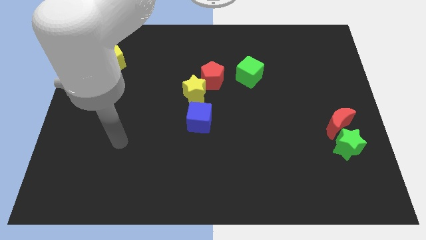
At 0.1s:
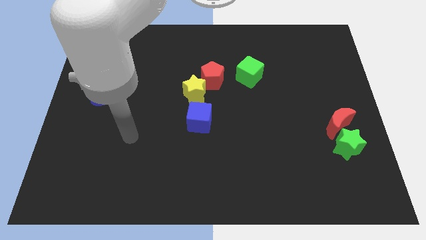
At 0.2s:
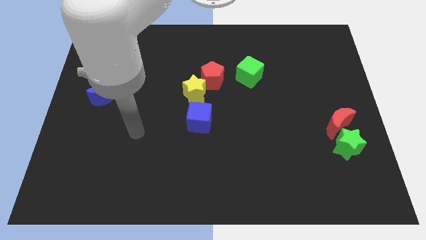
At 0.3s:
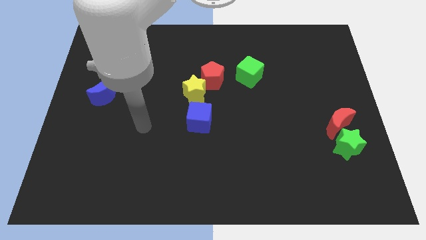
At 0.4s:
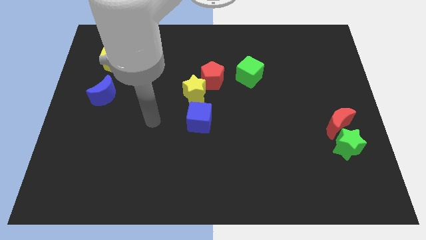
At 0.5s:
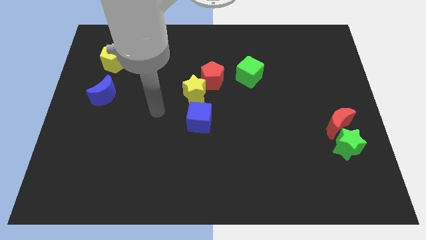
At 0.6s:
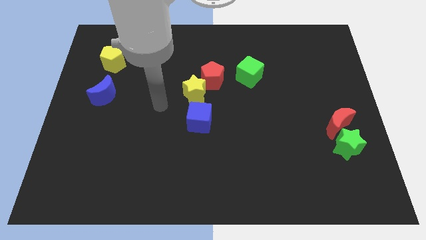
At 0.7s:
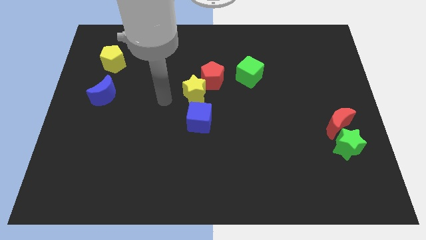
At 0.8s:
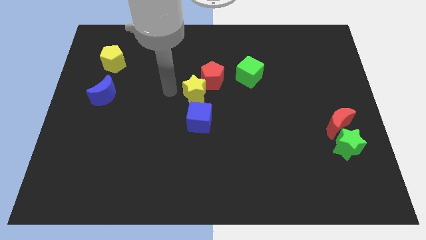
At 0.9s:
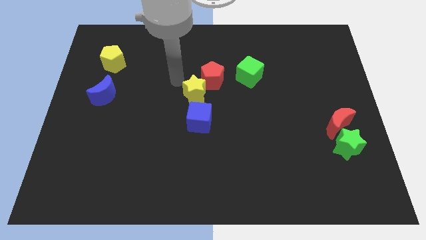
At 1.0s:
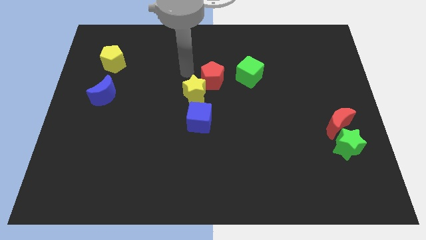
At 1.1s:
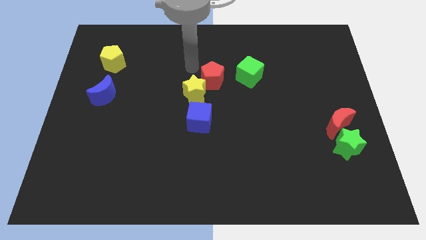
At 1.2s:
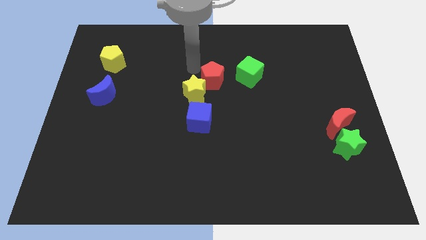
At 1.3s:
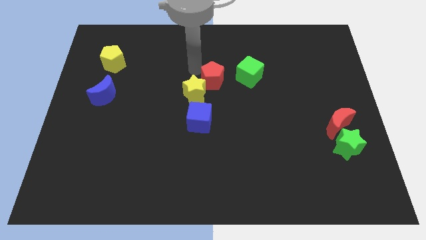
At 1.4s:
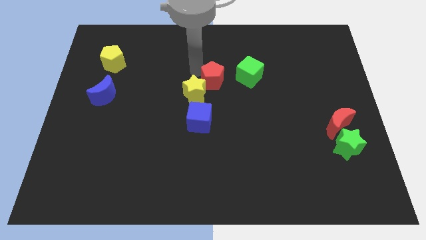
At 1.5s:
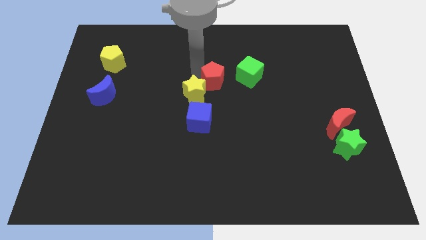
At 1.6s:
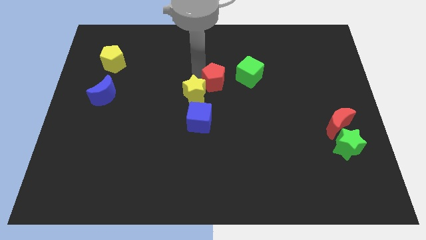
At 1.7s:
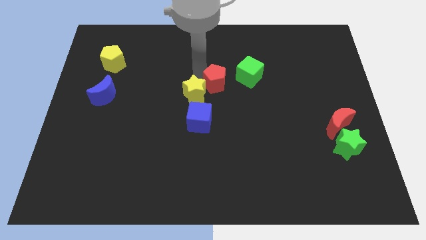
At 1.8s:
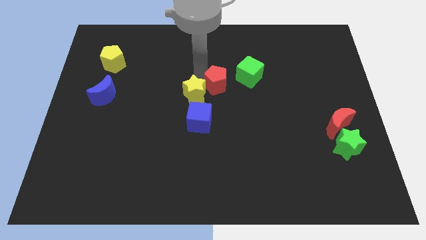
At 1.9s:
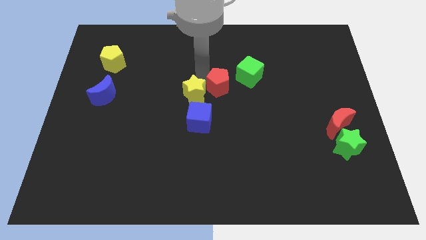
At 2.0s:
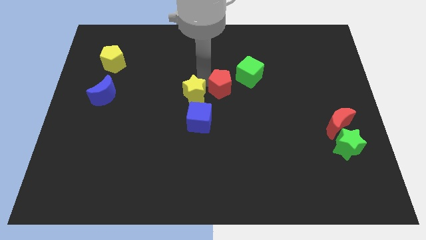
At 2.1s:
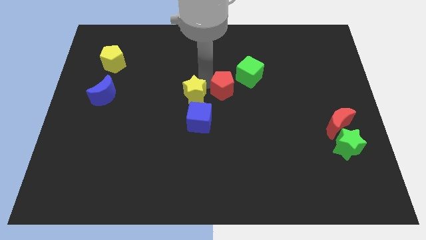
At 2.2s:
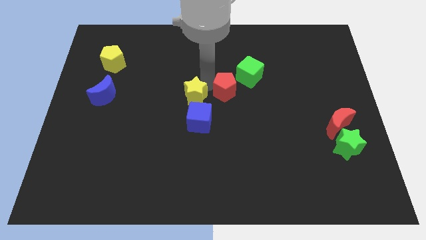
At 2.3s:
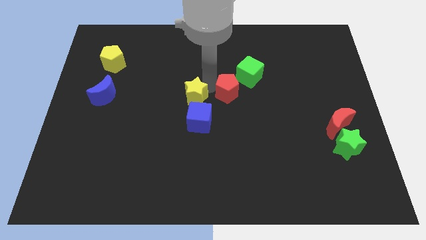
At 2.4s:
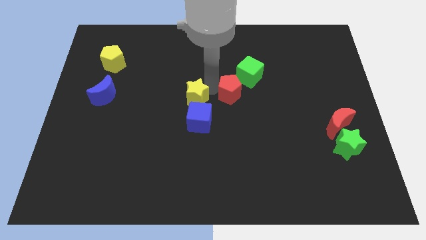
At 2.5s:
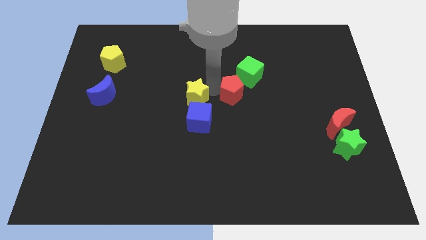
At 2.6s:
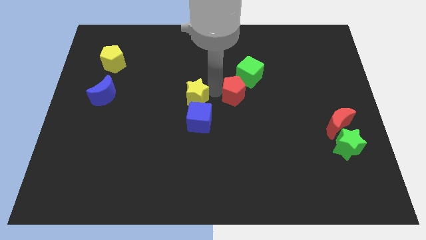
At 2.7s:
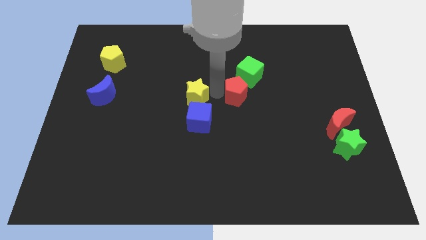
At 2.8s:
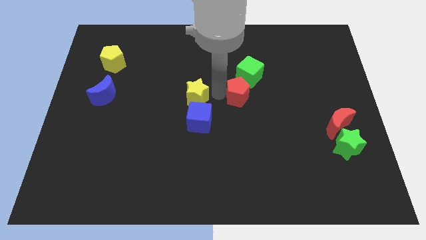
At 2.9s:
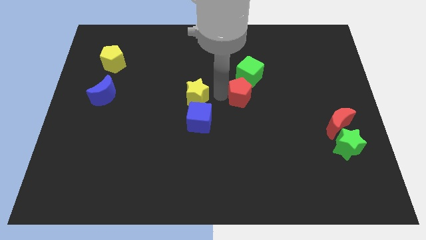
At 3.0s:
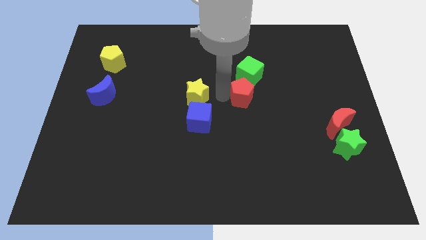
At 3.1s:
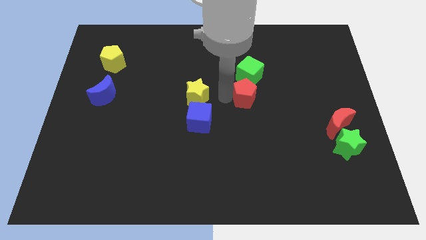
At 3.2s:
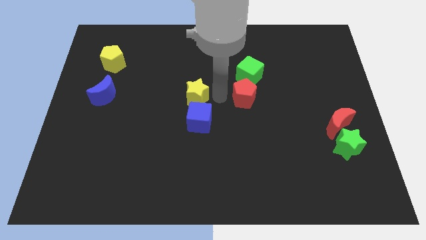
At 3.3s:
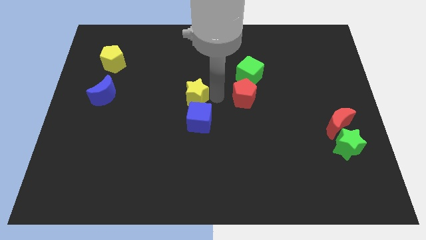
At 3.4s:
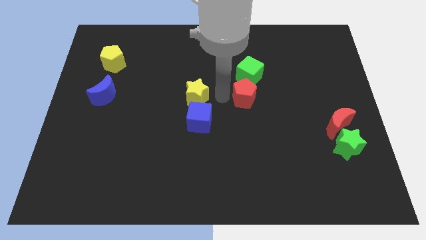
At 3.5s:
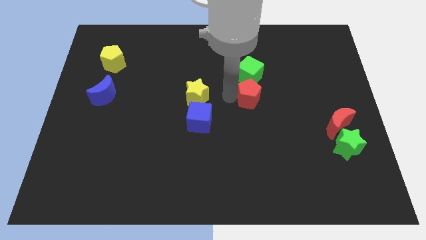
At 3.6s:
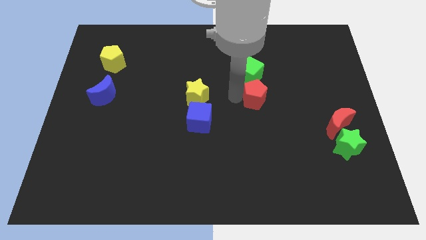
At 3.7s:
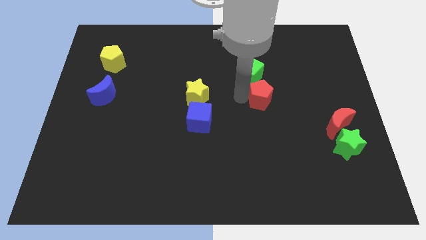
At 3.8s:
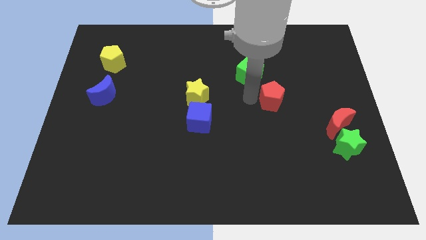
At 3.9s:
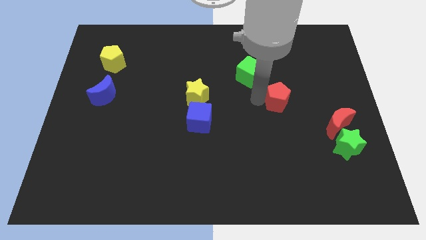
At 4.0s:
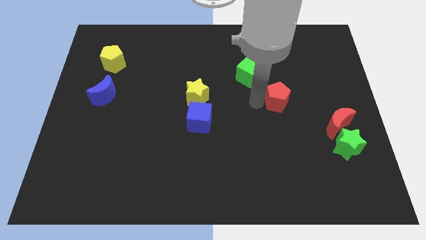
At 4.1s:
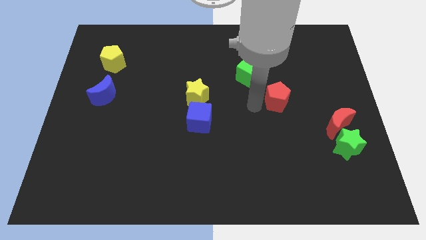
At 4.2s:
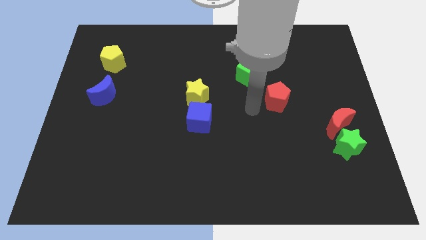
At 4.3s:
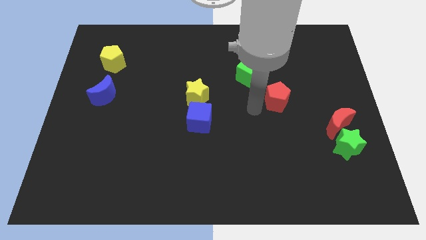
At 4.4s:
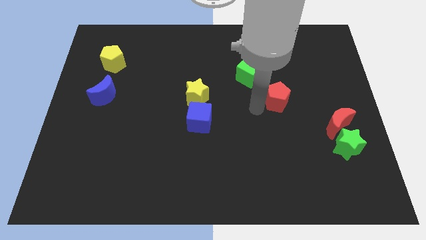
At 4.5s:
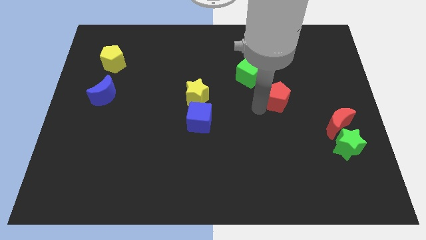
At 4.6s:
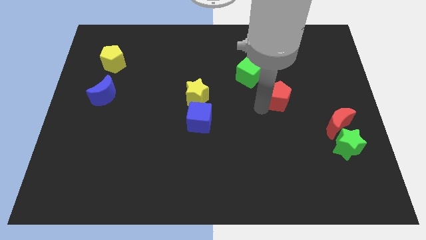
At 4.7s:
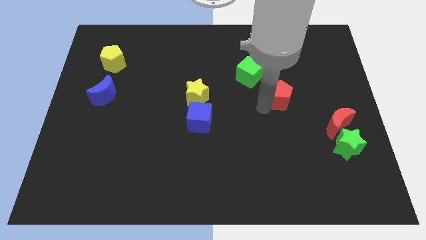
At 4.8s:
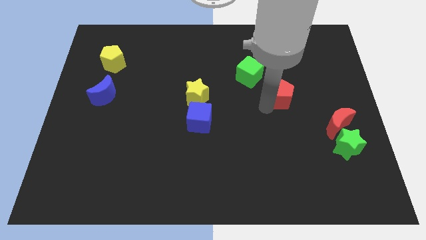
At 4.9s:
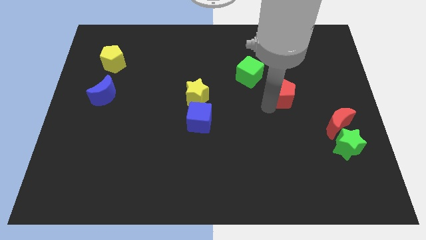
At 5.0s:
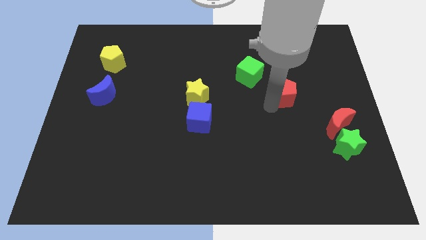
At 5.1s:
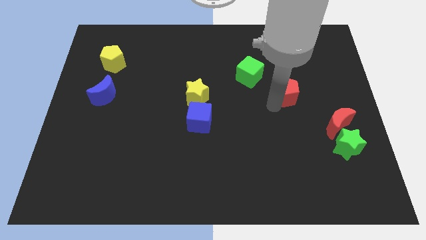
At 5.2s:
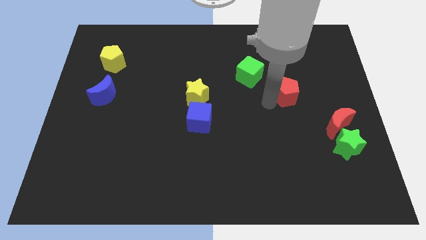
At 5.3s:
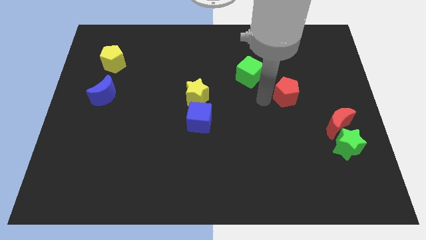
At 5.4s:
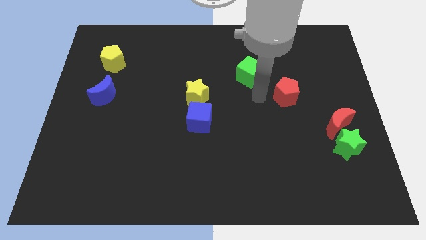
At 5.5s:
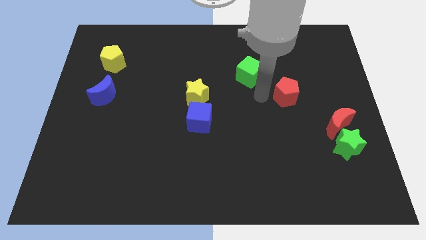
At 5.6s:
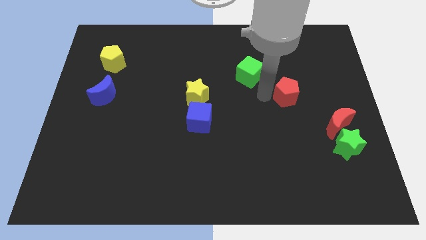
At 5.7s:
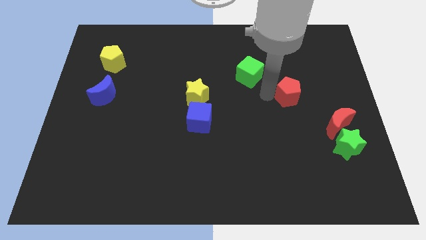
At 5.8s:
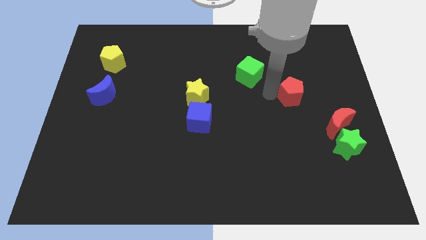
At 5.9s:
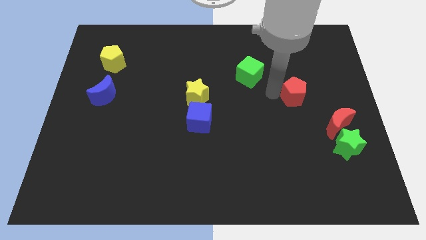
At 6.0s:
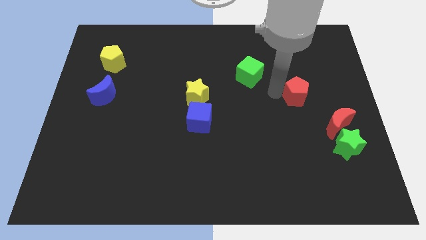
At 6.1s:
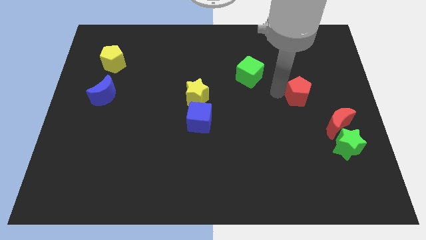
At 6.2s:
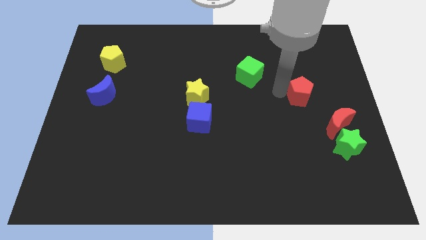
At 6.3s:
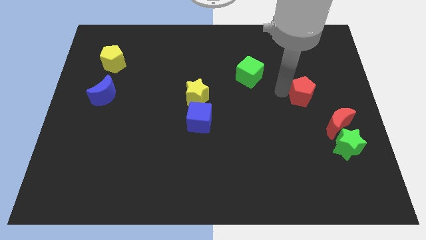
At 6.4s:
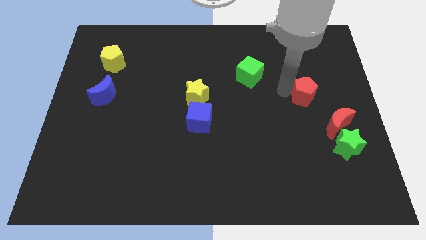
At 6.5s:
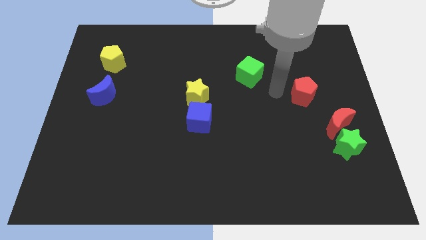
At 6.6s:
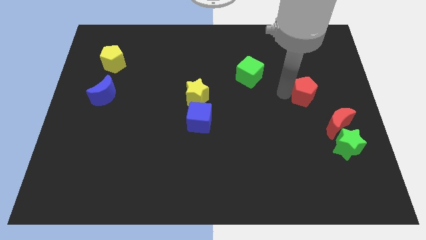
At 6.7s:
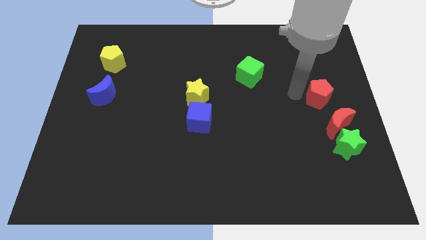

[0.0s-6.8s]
slide the red pentagon to the right side of the board

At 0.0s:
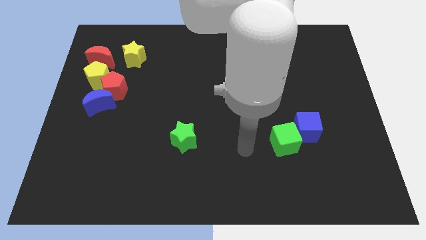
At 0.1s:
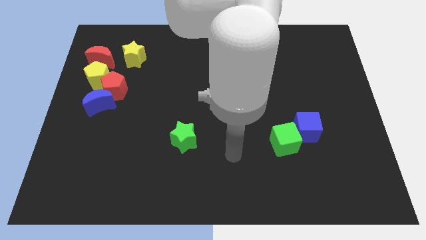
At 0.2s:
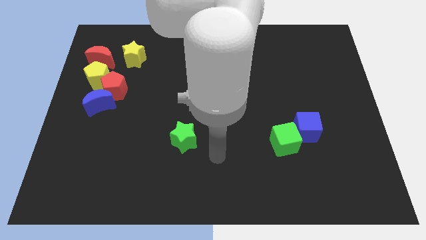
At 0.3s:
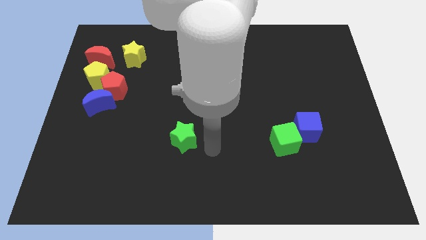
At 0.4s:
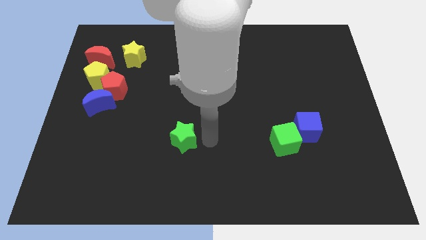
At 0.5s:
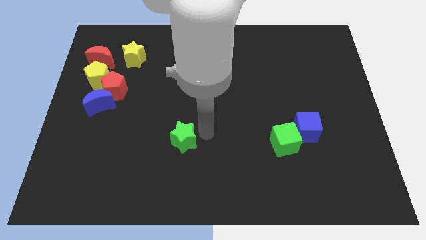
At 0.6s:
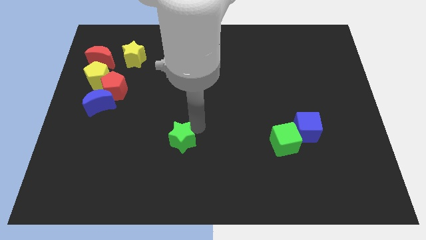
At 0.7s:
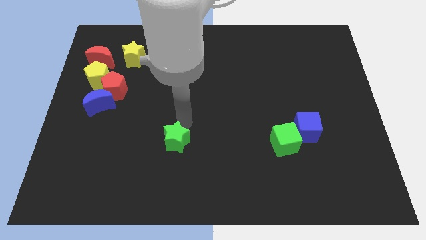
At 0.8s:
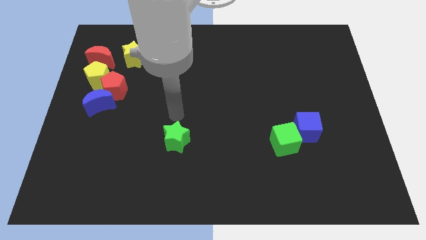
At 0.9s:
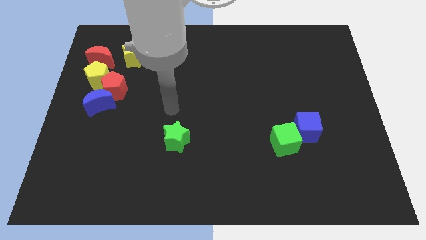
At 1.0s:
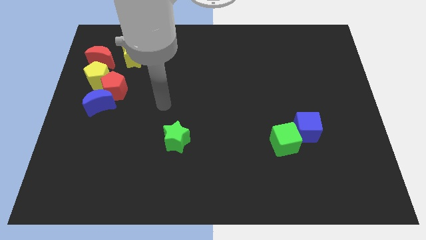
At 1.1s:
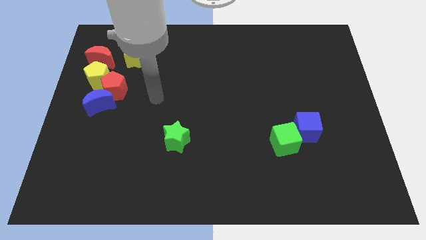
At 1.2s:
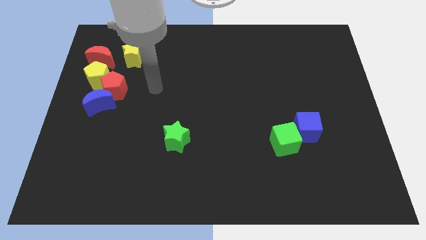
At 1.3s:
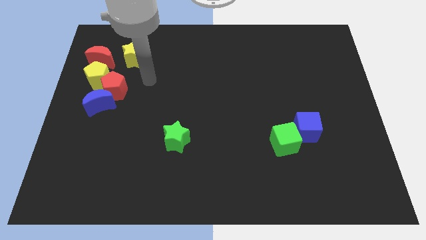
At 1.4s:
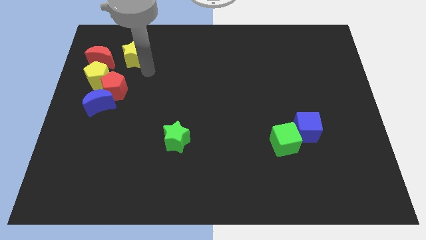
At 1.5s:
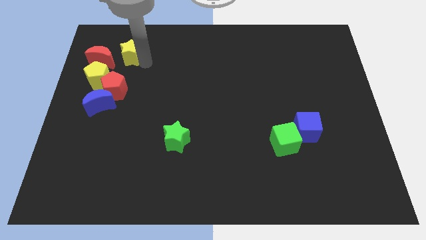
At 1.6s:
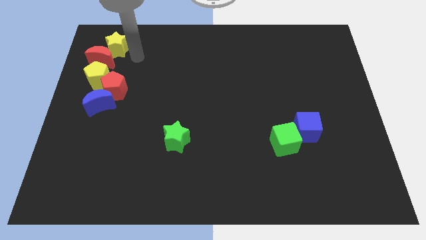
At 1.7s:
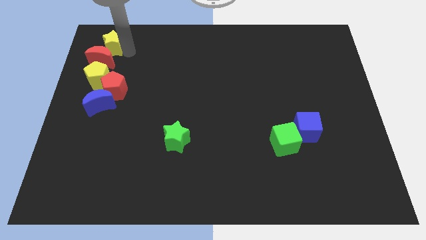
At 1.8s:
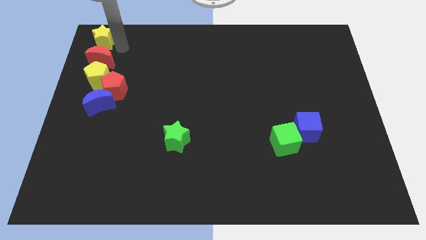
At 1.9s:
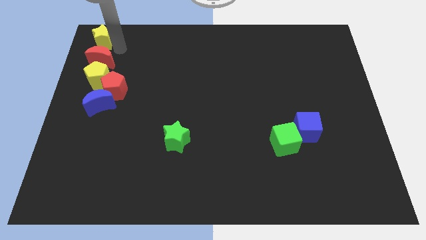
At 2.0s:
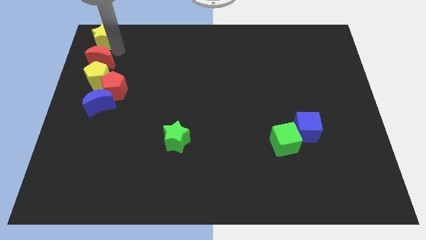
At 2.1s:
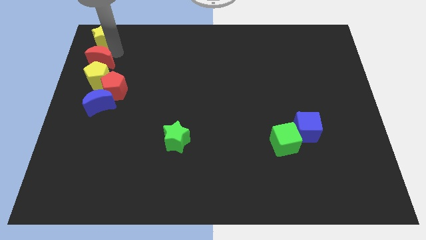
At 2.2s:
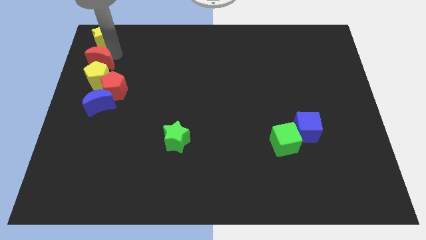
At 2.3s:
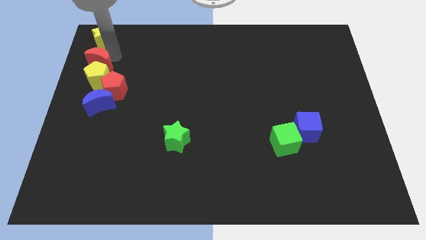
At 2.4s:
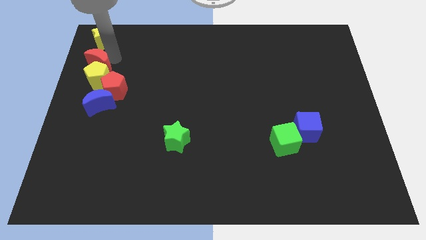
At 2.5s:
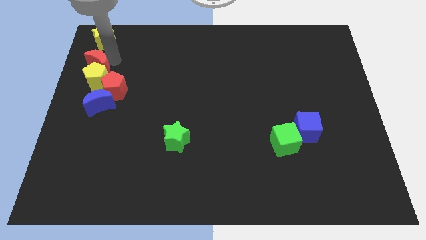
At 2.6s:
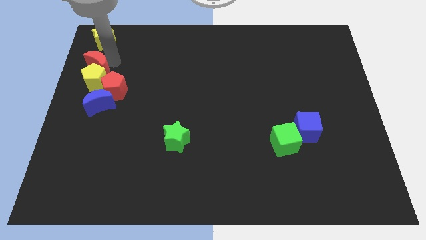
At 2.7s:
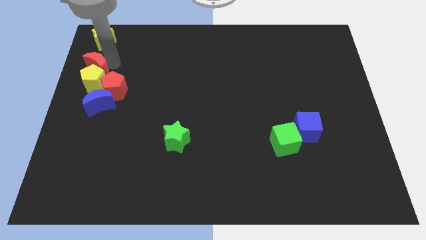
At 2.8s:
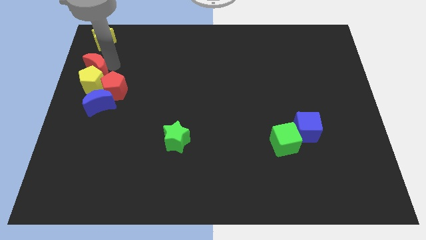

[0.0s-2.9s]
slide the red moon to the left side of the board
